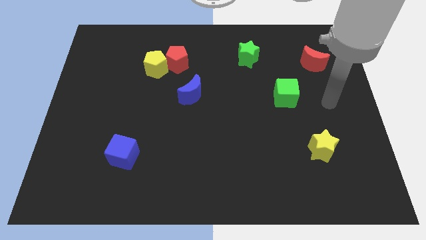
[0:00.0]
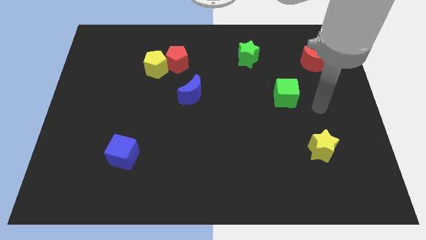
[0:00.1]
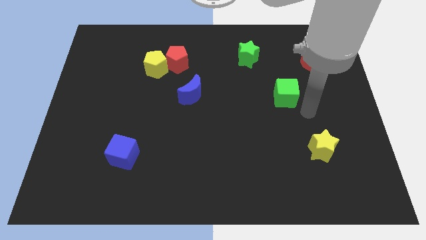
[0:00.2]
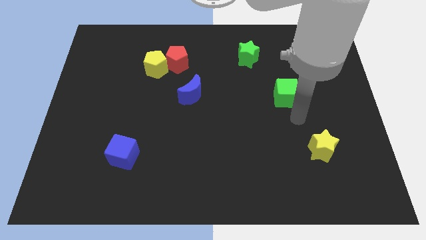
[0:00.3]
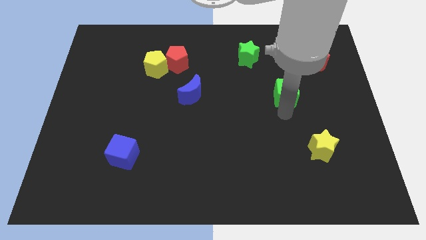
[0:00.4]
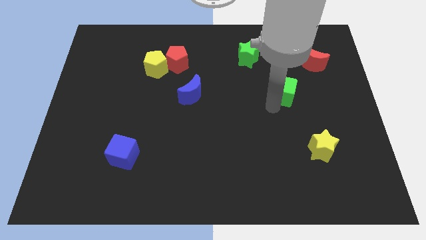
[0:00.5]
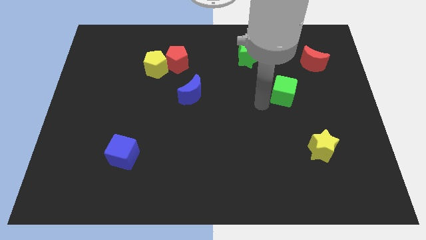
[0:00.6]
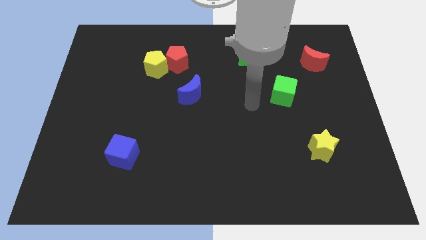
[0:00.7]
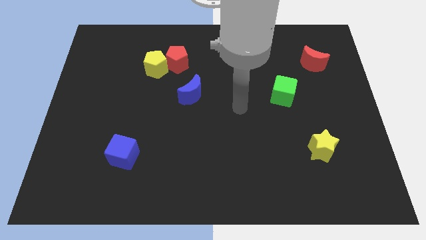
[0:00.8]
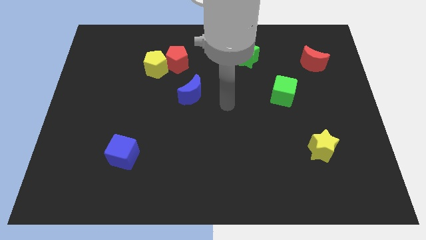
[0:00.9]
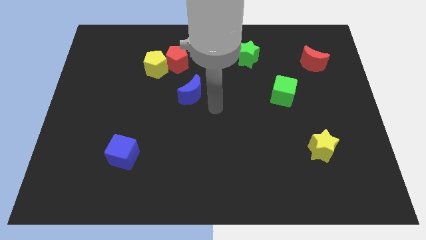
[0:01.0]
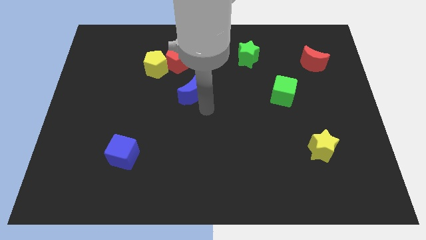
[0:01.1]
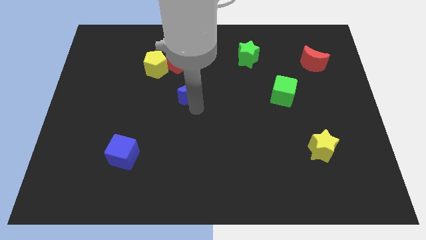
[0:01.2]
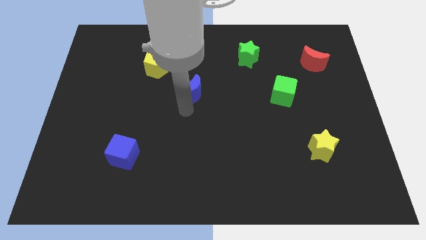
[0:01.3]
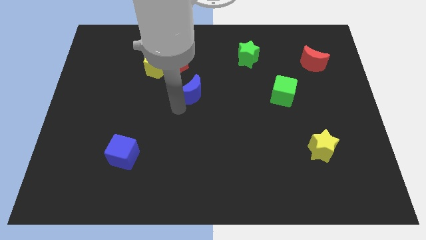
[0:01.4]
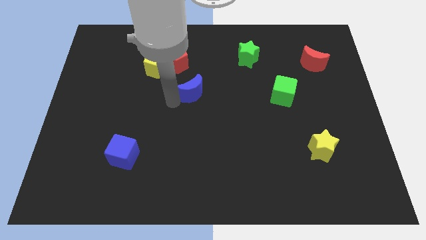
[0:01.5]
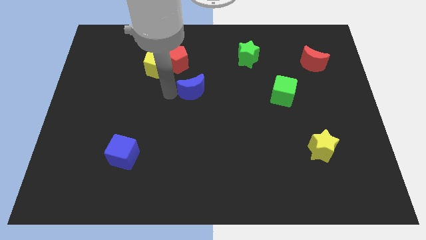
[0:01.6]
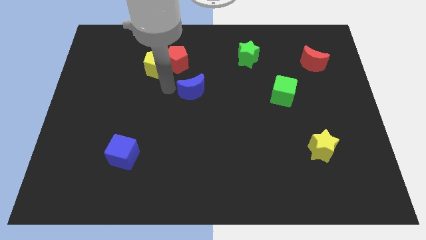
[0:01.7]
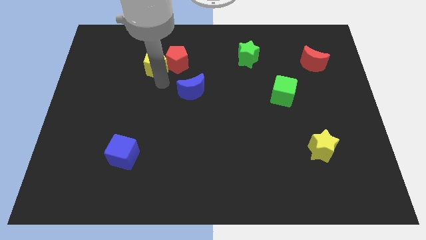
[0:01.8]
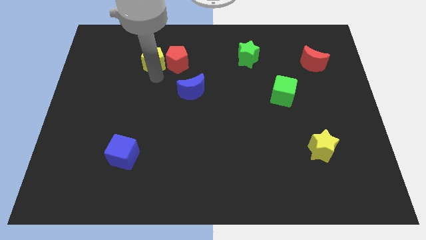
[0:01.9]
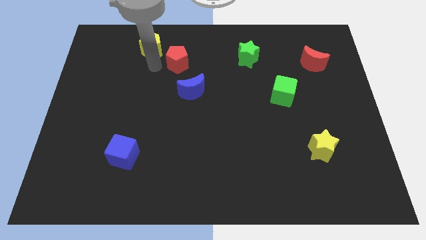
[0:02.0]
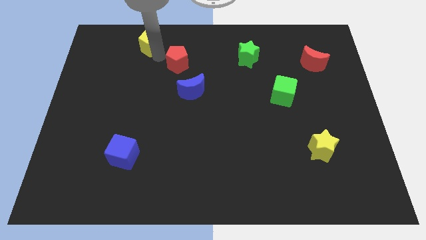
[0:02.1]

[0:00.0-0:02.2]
move the red pentagon away from the yellow pentagon

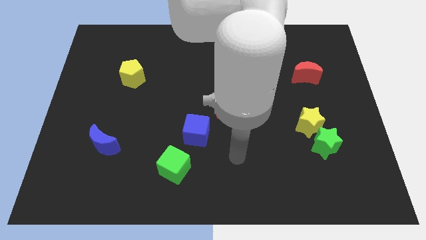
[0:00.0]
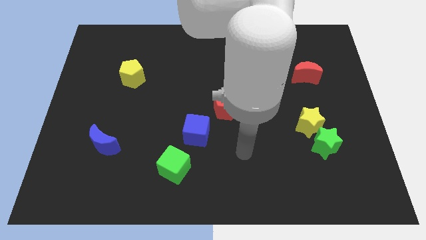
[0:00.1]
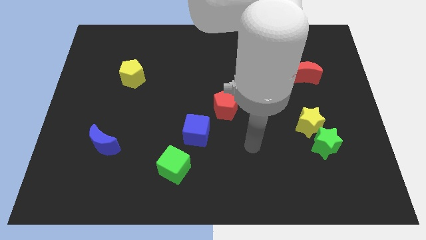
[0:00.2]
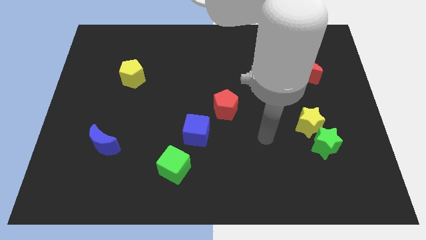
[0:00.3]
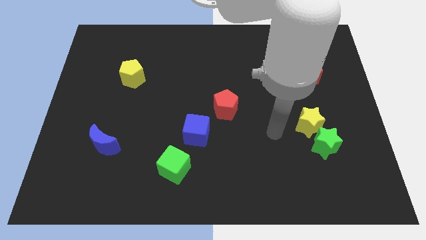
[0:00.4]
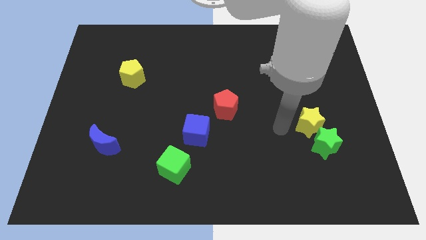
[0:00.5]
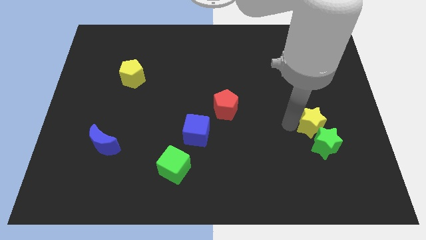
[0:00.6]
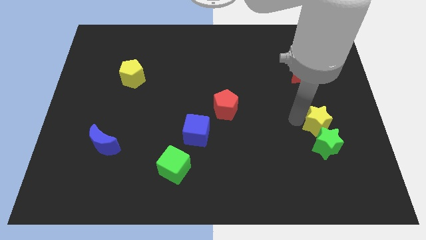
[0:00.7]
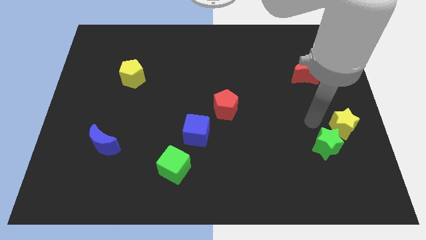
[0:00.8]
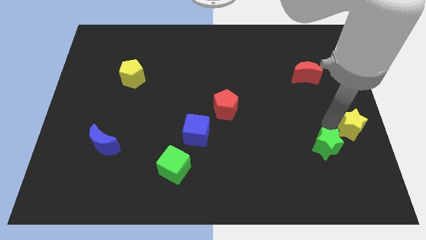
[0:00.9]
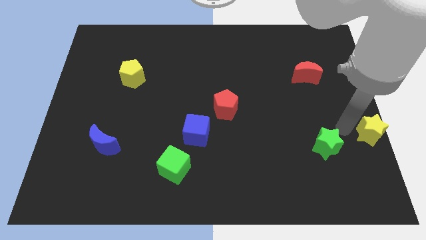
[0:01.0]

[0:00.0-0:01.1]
separate the green star from the yellow star

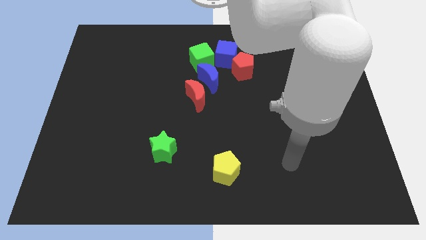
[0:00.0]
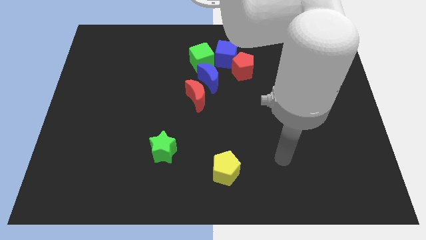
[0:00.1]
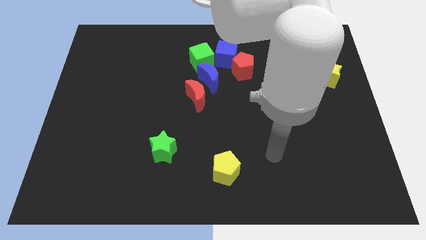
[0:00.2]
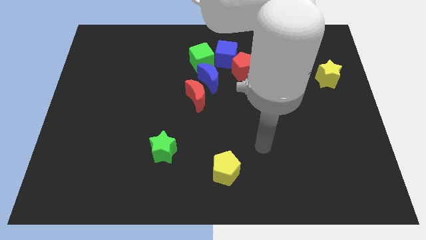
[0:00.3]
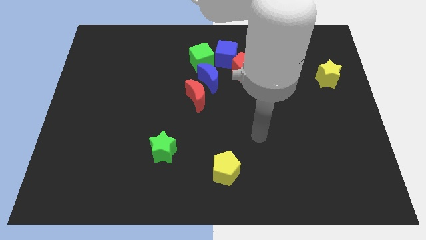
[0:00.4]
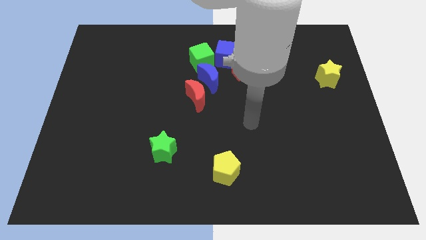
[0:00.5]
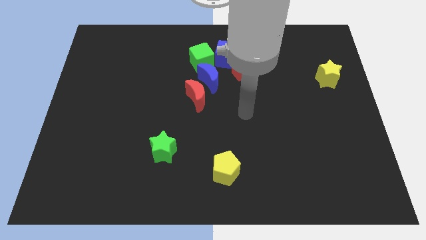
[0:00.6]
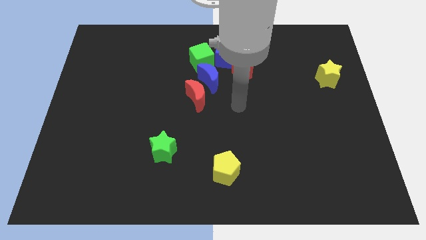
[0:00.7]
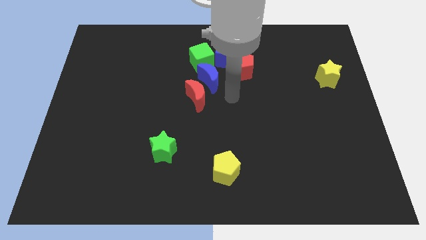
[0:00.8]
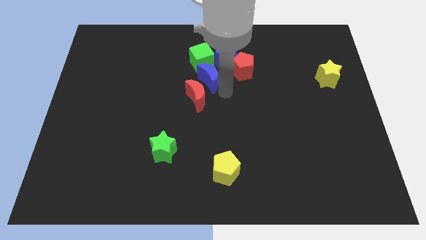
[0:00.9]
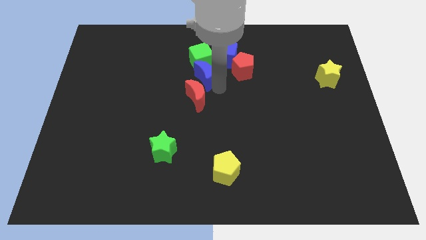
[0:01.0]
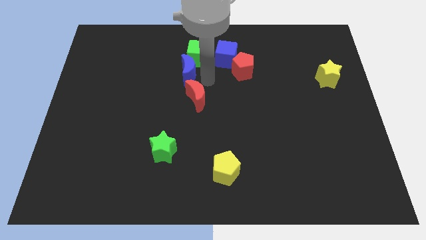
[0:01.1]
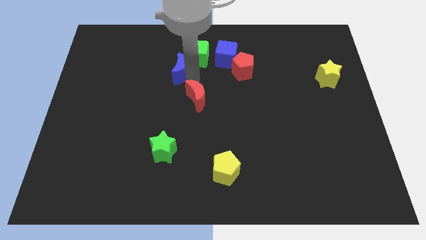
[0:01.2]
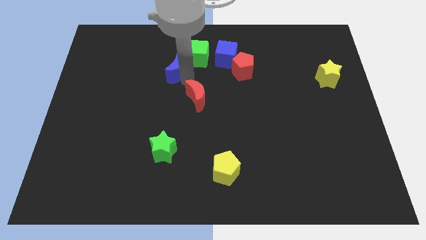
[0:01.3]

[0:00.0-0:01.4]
pull the red moon apart from the blue moon

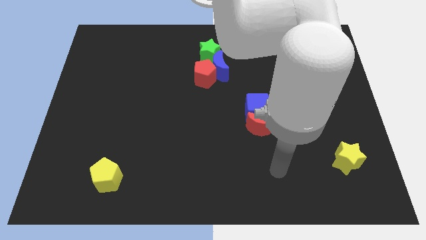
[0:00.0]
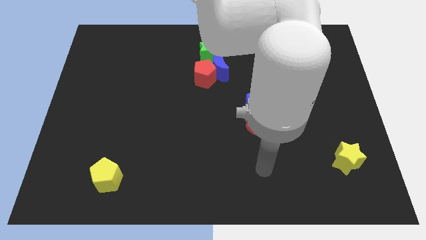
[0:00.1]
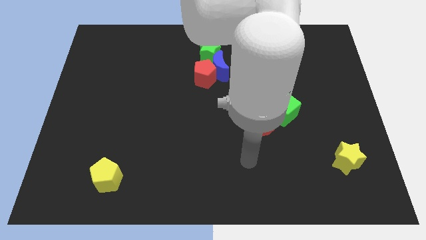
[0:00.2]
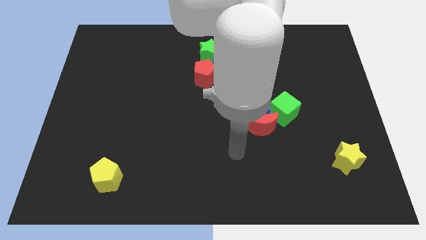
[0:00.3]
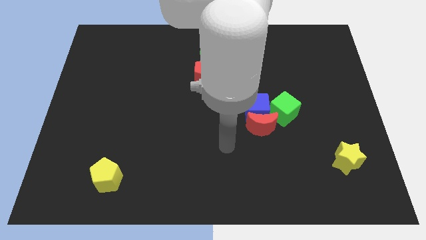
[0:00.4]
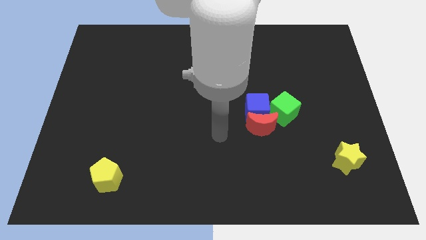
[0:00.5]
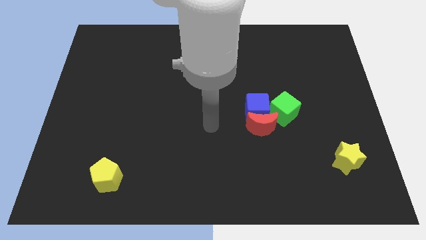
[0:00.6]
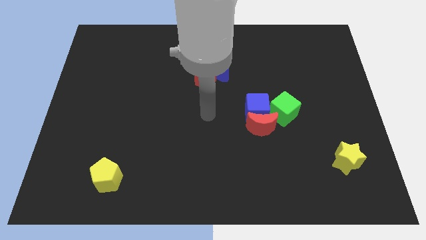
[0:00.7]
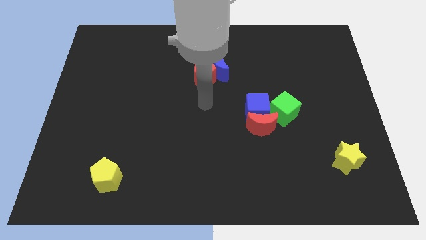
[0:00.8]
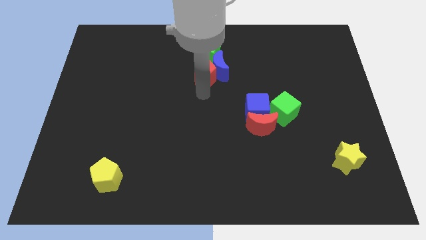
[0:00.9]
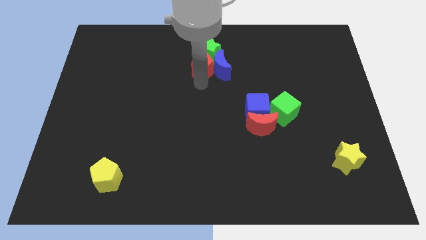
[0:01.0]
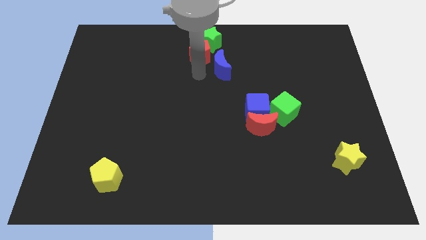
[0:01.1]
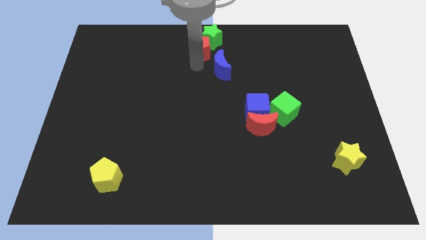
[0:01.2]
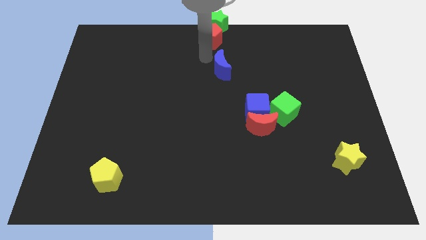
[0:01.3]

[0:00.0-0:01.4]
pull the blue moon apart from the red pentagon and green star

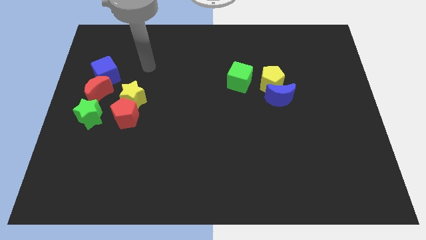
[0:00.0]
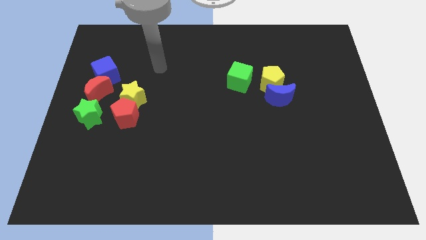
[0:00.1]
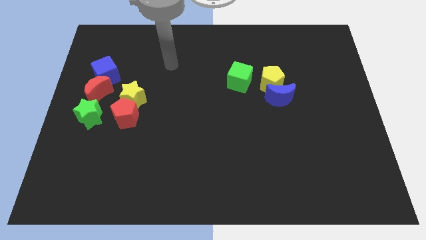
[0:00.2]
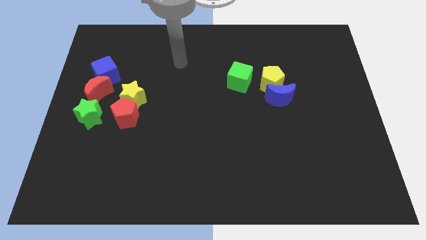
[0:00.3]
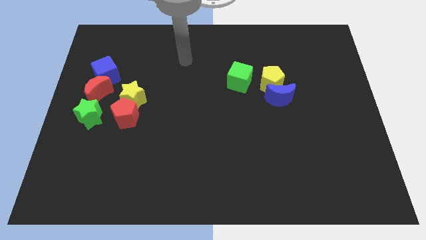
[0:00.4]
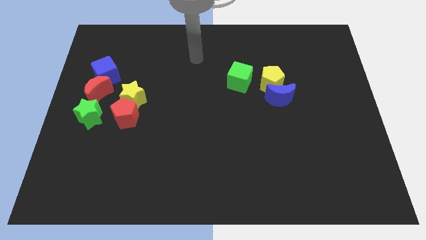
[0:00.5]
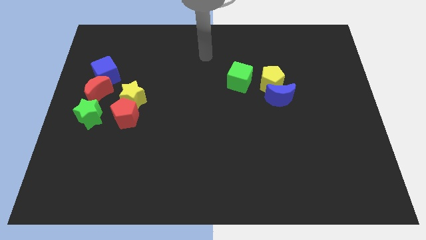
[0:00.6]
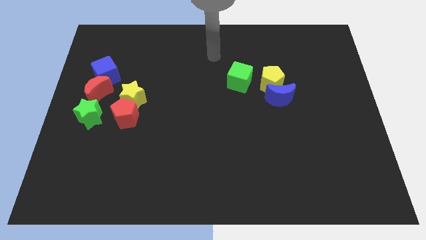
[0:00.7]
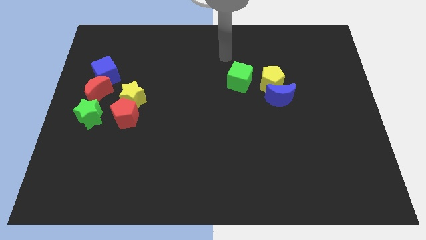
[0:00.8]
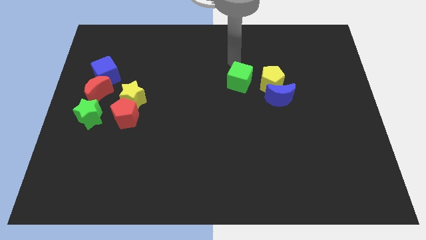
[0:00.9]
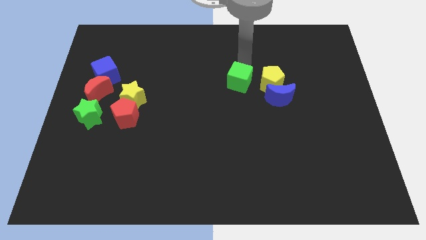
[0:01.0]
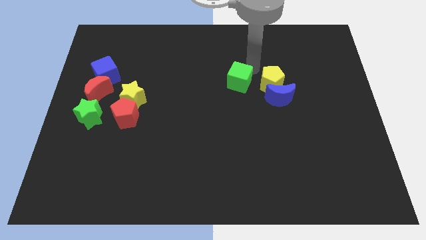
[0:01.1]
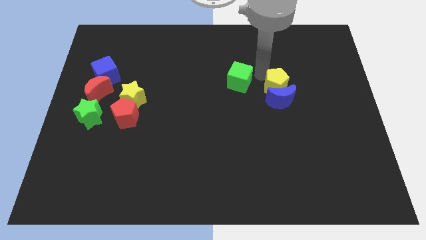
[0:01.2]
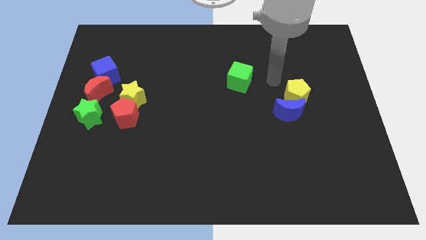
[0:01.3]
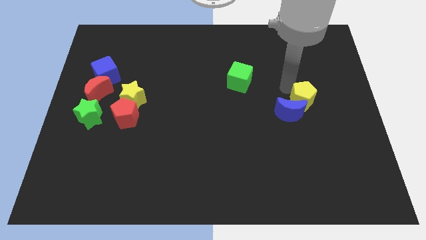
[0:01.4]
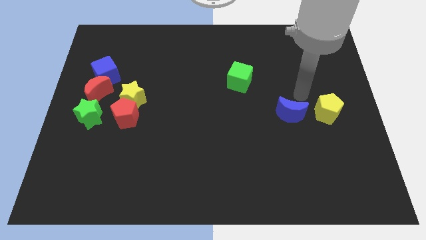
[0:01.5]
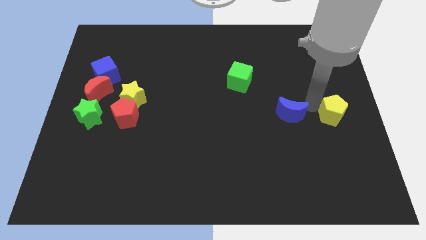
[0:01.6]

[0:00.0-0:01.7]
separate the blue moon from the yellow pentagon

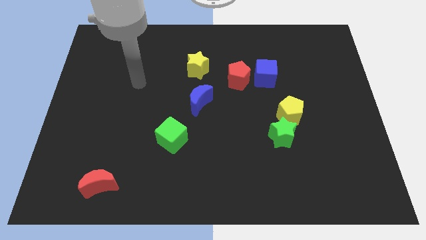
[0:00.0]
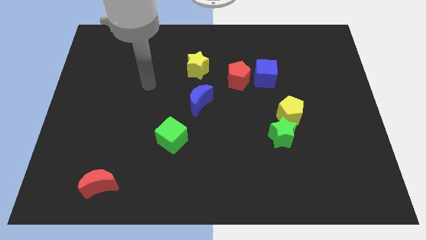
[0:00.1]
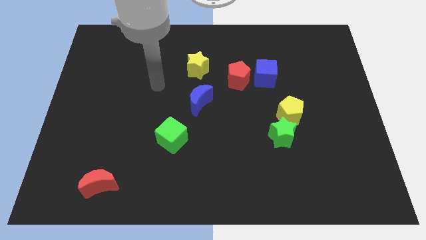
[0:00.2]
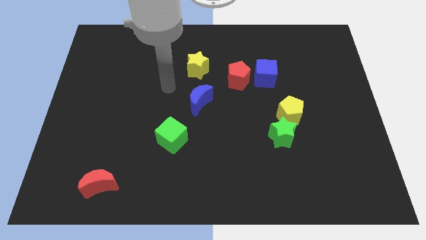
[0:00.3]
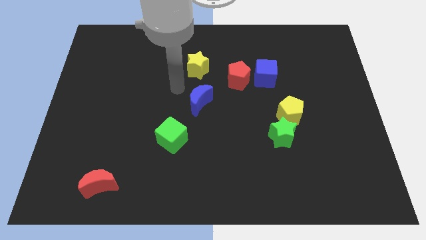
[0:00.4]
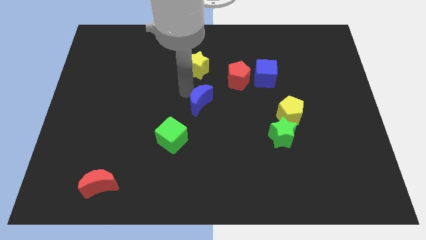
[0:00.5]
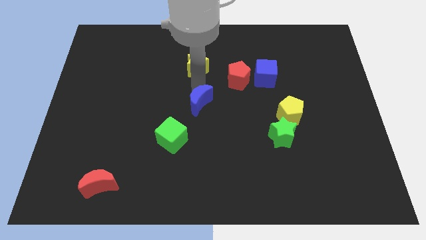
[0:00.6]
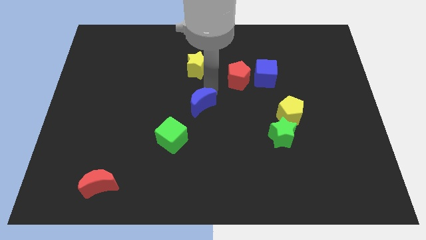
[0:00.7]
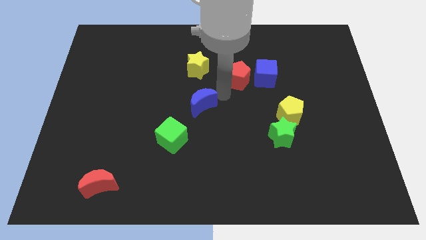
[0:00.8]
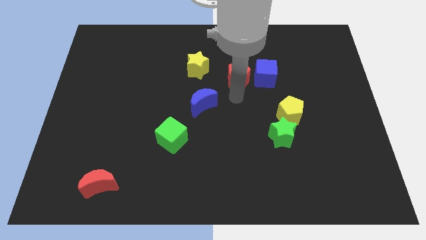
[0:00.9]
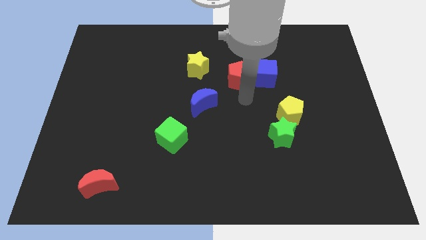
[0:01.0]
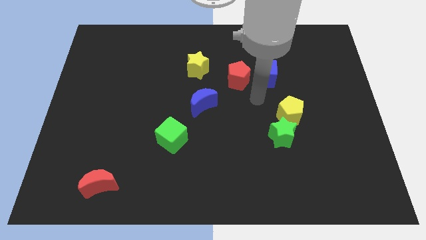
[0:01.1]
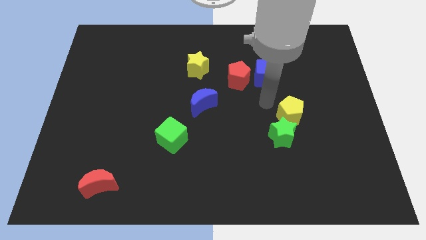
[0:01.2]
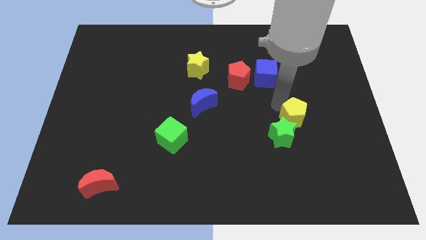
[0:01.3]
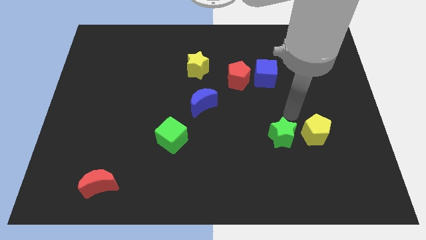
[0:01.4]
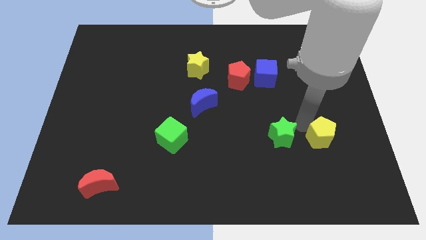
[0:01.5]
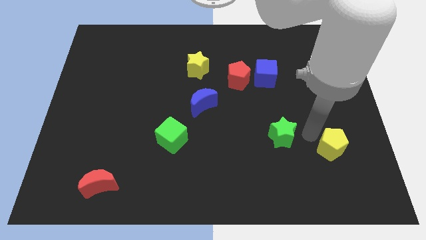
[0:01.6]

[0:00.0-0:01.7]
move the green star away from the yellow pentagon
